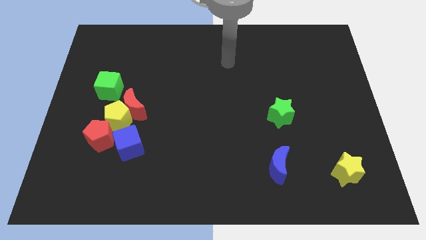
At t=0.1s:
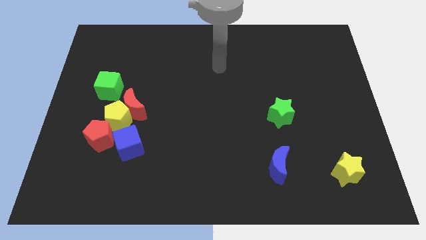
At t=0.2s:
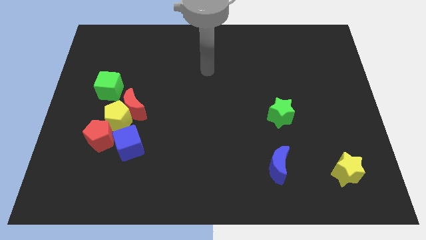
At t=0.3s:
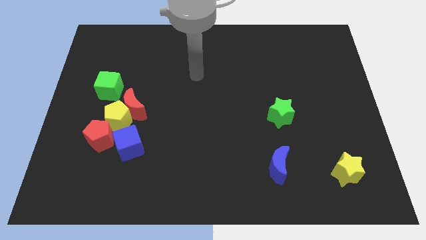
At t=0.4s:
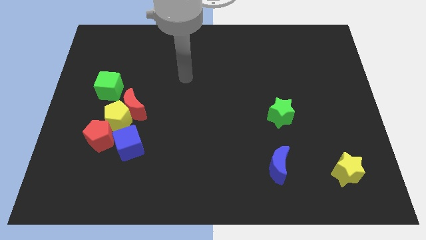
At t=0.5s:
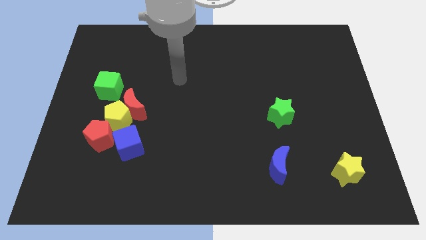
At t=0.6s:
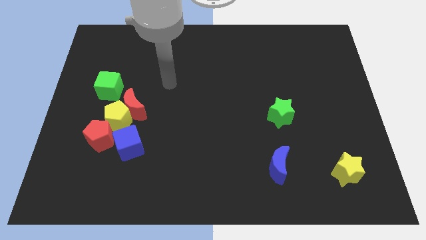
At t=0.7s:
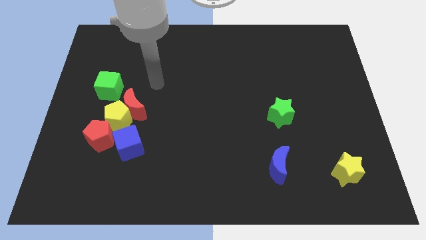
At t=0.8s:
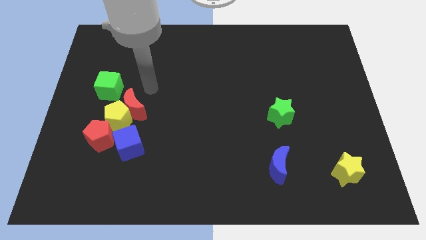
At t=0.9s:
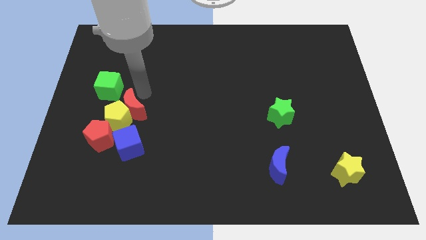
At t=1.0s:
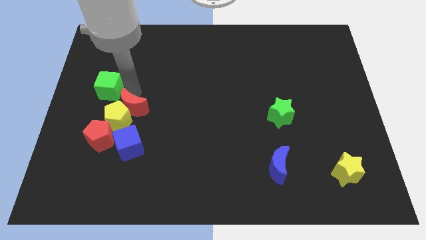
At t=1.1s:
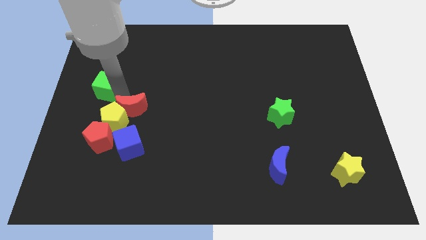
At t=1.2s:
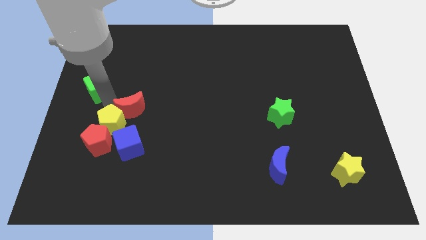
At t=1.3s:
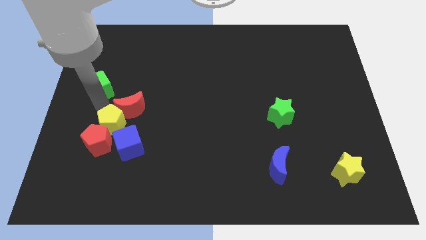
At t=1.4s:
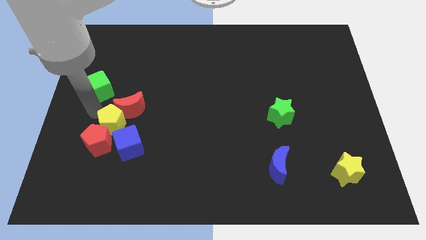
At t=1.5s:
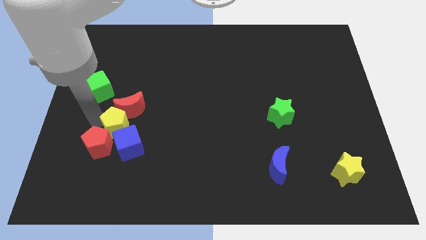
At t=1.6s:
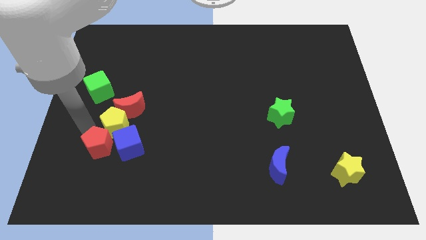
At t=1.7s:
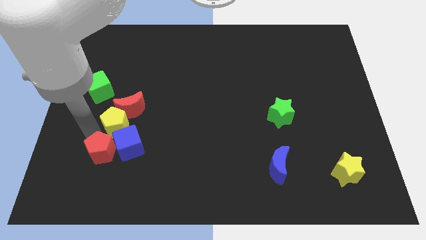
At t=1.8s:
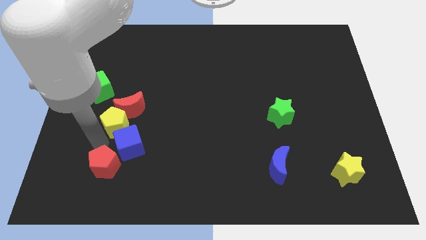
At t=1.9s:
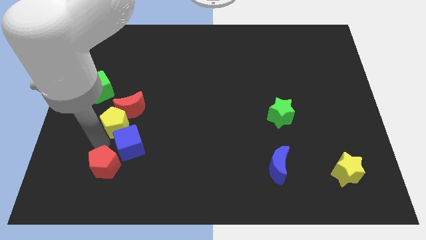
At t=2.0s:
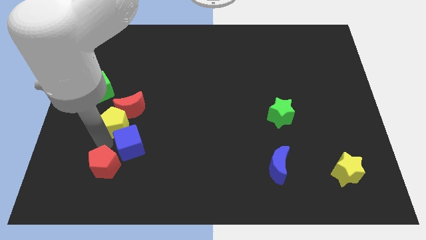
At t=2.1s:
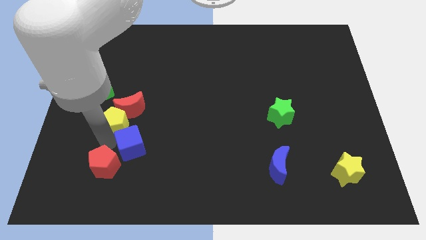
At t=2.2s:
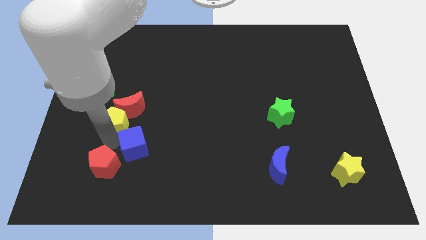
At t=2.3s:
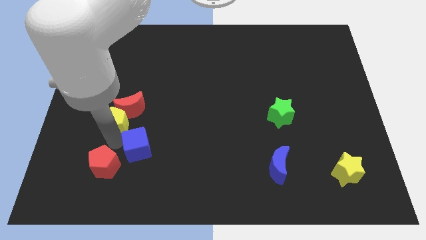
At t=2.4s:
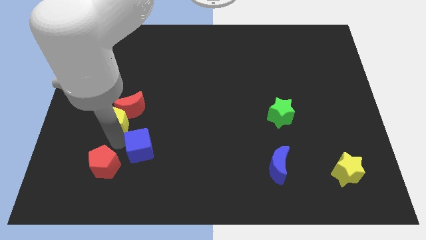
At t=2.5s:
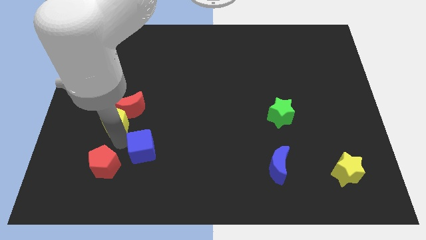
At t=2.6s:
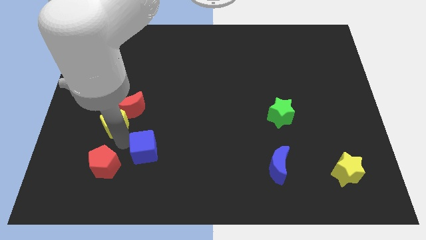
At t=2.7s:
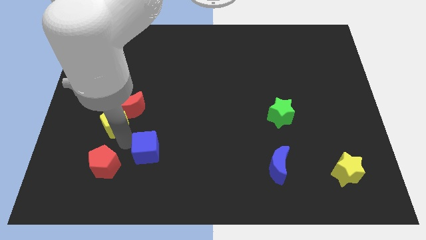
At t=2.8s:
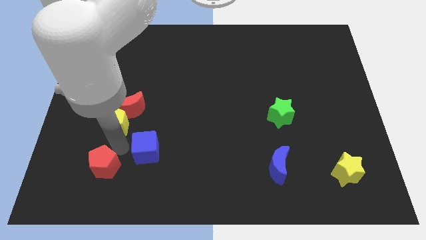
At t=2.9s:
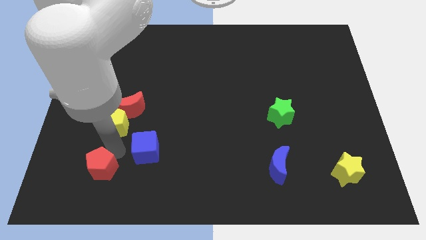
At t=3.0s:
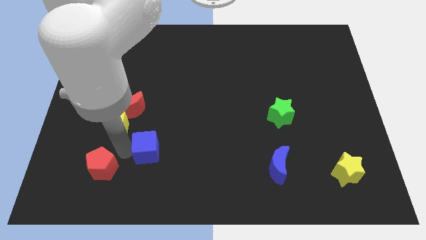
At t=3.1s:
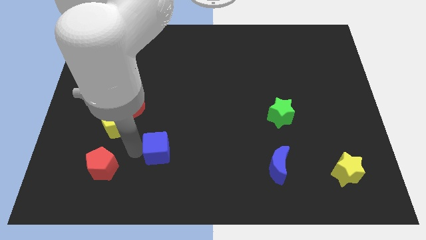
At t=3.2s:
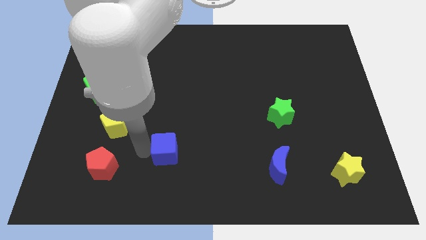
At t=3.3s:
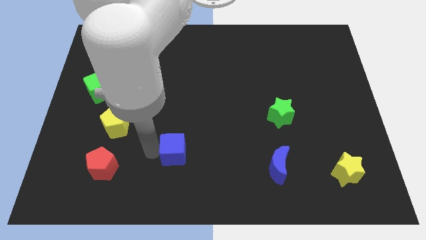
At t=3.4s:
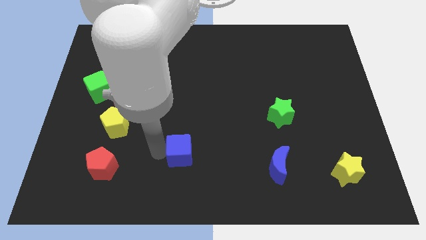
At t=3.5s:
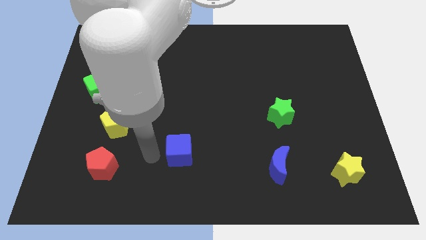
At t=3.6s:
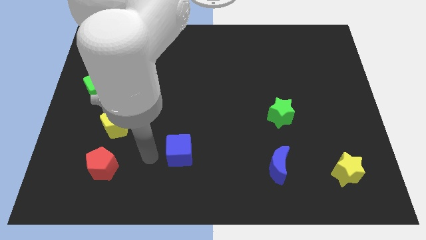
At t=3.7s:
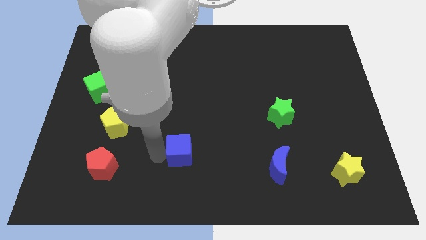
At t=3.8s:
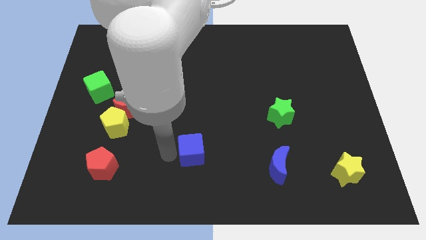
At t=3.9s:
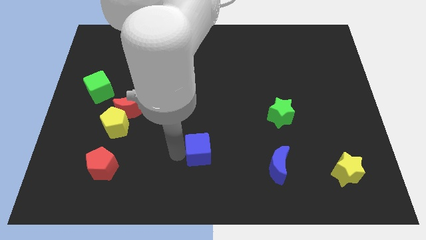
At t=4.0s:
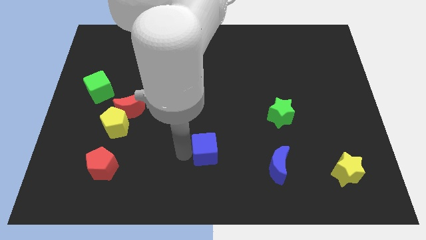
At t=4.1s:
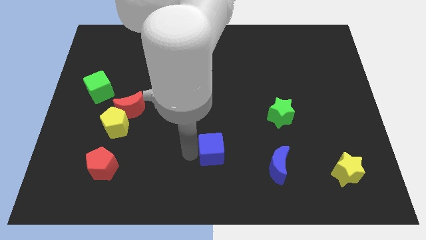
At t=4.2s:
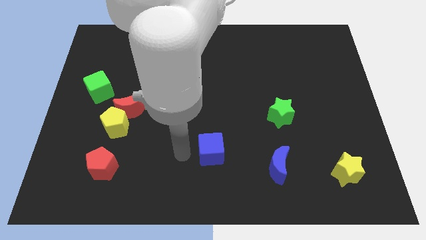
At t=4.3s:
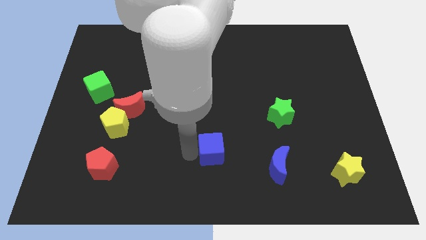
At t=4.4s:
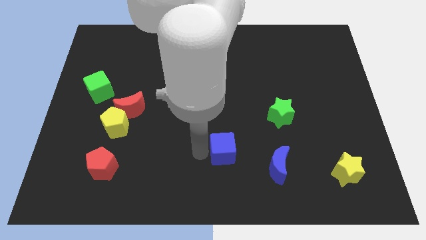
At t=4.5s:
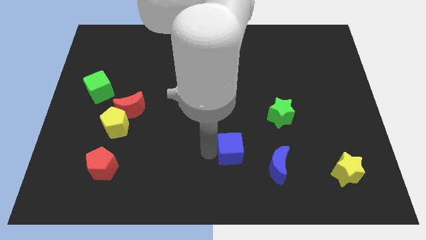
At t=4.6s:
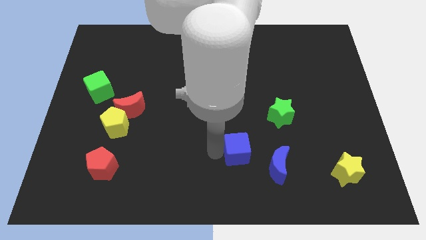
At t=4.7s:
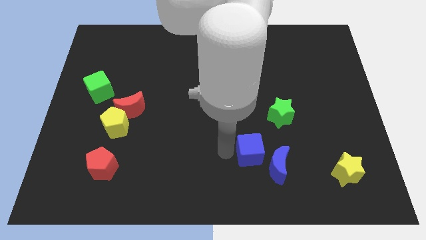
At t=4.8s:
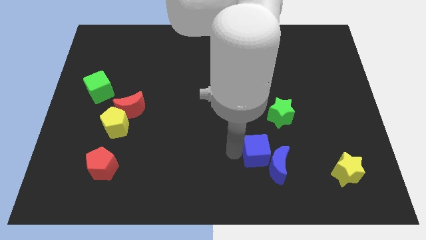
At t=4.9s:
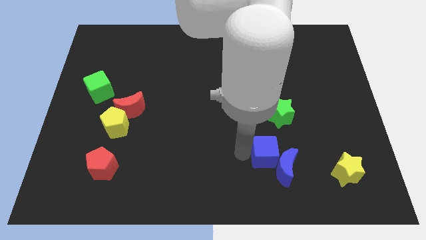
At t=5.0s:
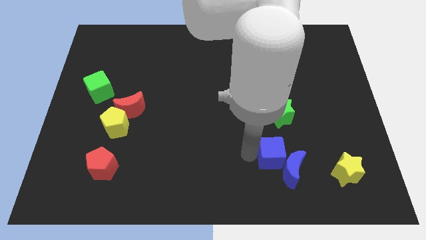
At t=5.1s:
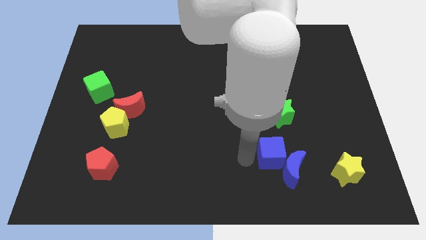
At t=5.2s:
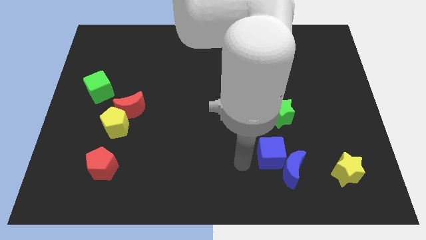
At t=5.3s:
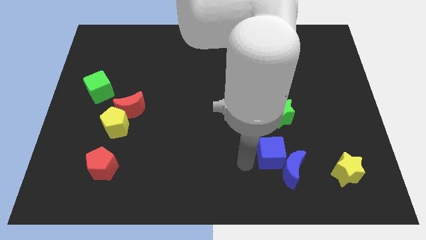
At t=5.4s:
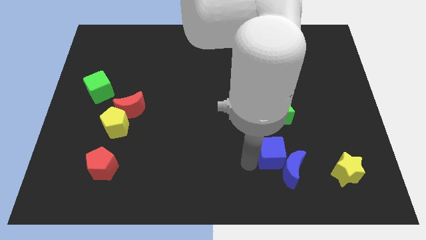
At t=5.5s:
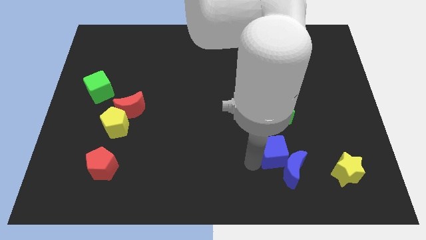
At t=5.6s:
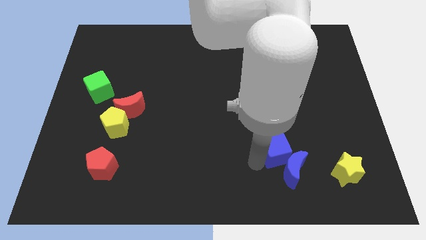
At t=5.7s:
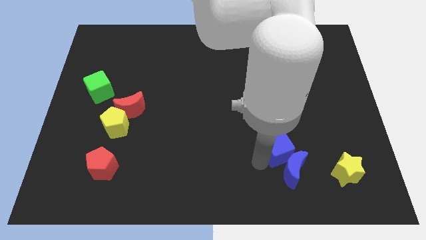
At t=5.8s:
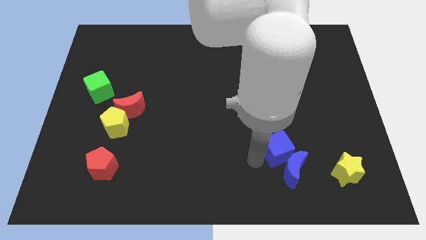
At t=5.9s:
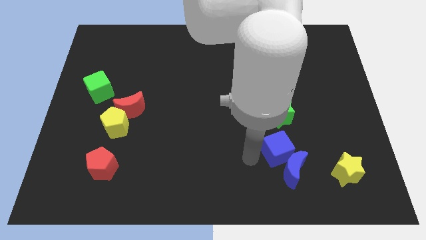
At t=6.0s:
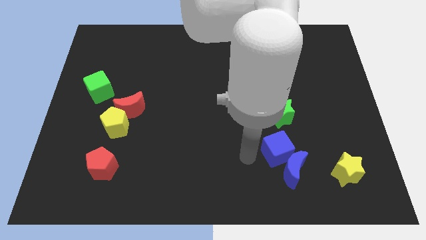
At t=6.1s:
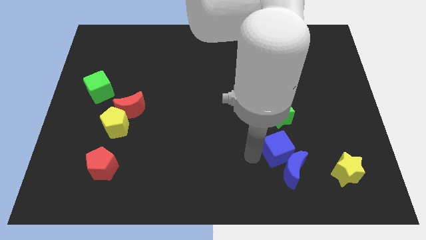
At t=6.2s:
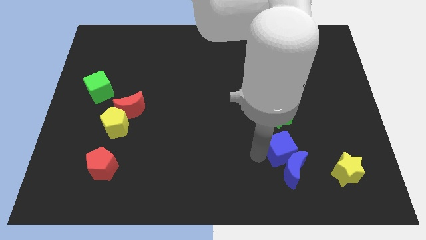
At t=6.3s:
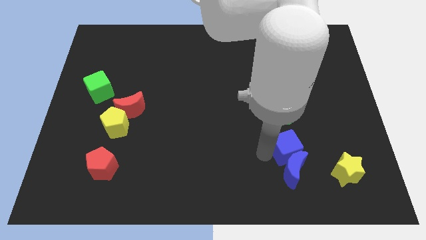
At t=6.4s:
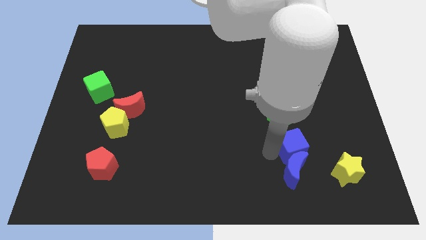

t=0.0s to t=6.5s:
move the blue cube diagonally up and to the left of the yellow star

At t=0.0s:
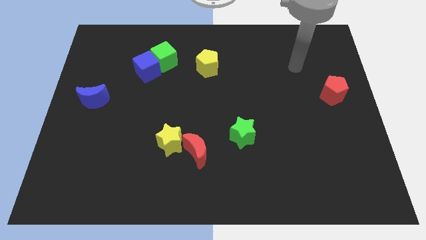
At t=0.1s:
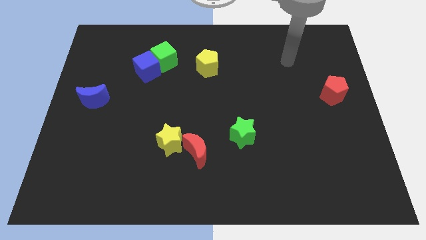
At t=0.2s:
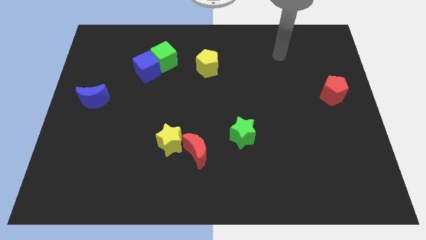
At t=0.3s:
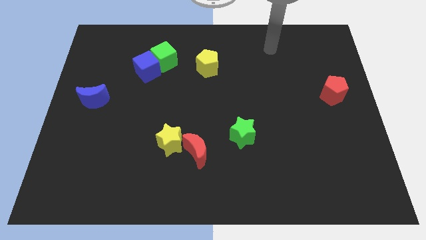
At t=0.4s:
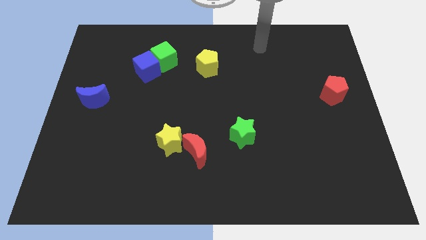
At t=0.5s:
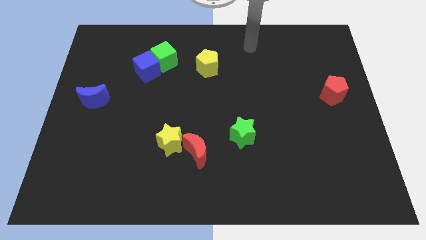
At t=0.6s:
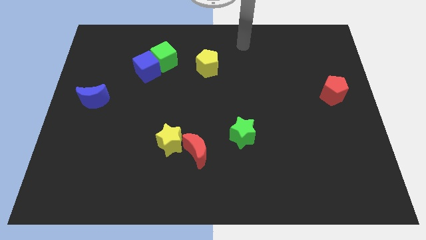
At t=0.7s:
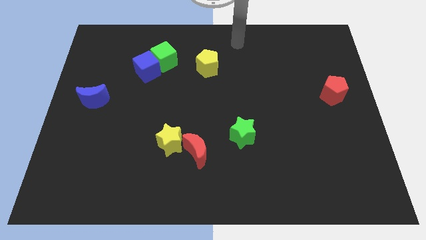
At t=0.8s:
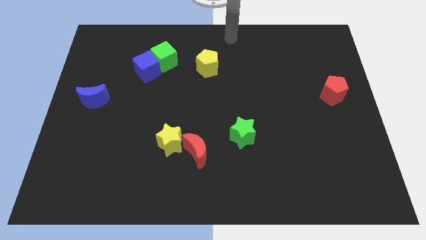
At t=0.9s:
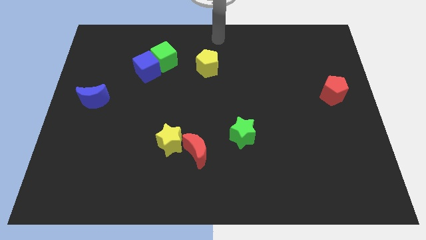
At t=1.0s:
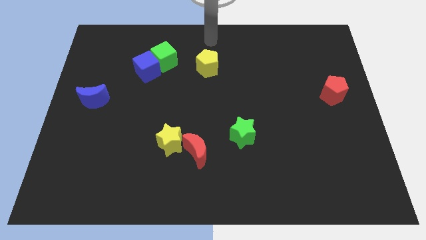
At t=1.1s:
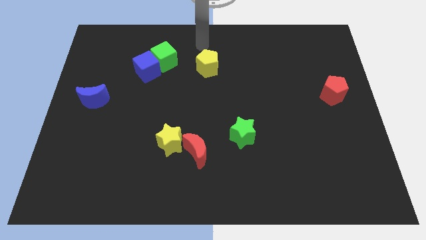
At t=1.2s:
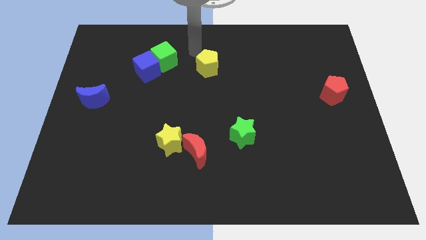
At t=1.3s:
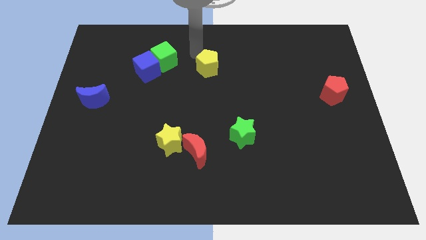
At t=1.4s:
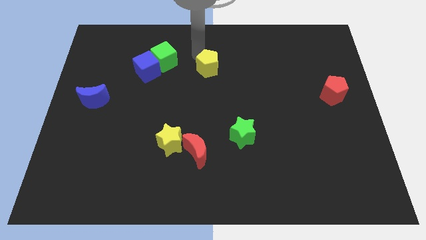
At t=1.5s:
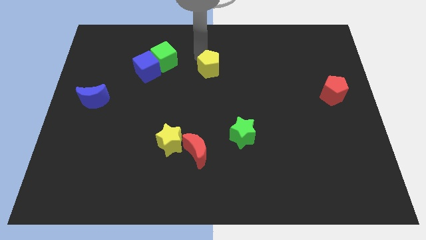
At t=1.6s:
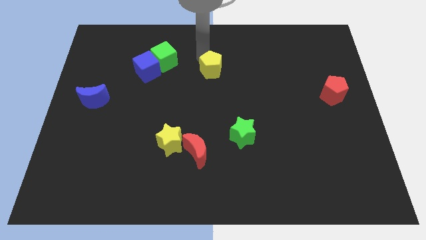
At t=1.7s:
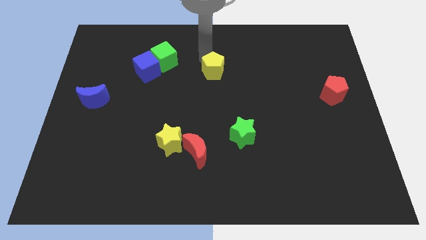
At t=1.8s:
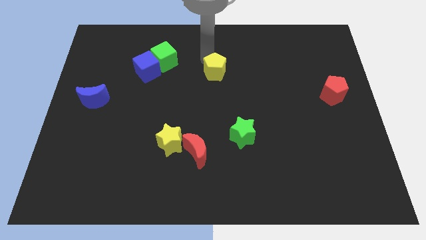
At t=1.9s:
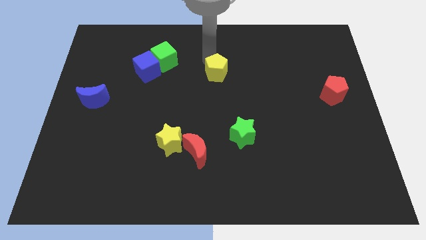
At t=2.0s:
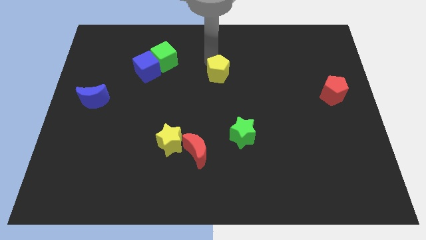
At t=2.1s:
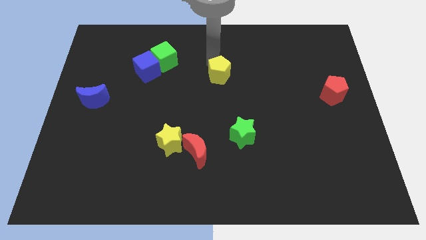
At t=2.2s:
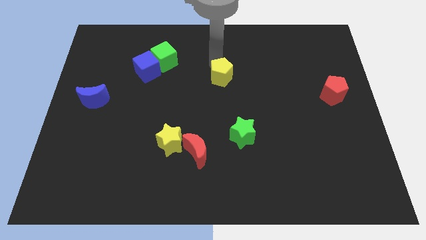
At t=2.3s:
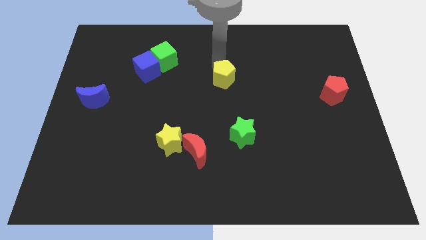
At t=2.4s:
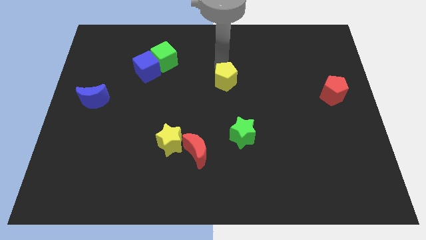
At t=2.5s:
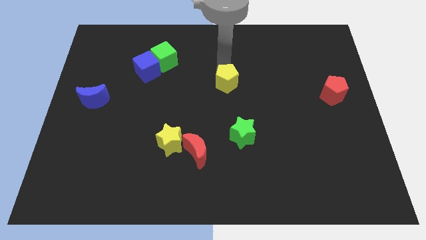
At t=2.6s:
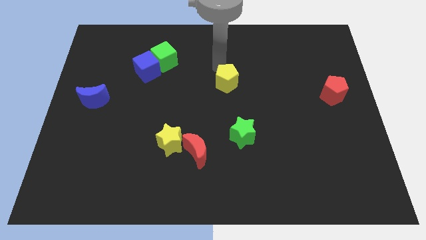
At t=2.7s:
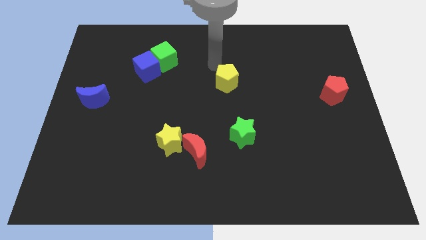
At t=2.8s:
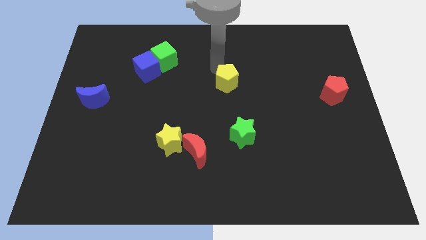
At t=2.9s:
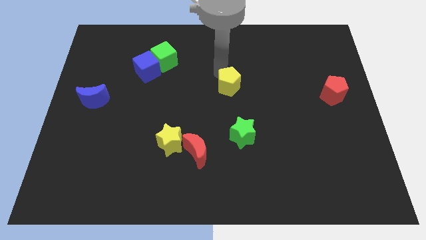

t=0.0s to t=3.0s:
slide the yellow pentagon above the green star
